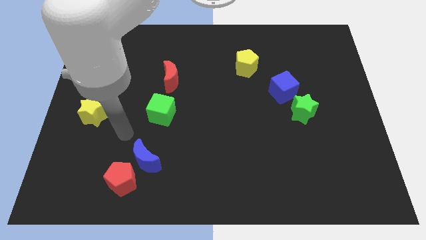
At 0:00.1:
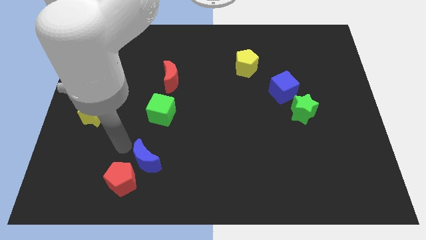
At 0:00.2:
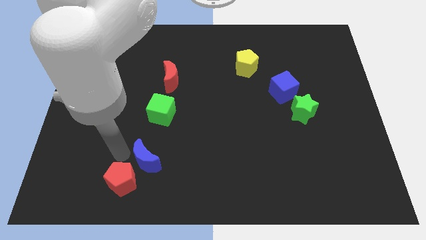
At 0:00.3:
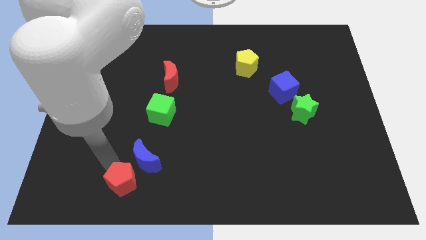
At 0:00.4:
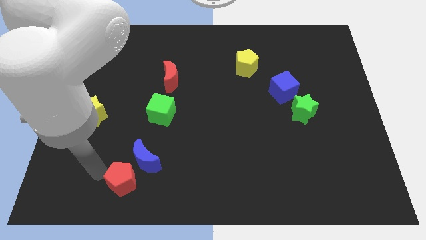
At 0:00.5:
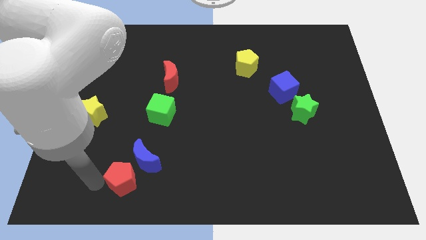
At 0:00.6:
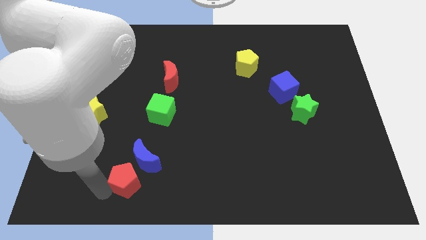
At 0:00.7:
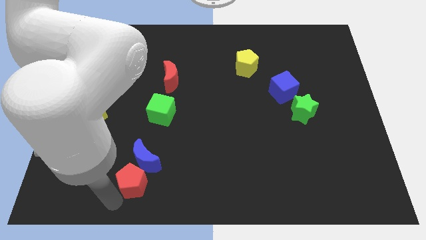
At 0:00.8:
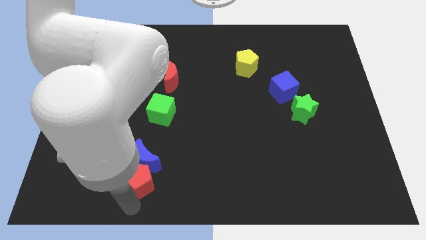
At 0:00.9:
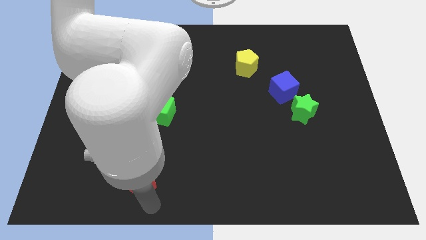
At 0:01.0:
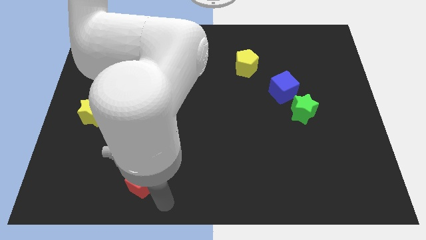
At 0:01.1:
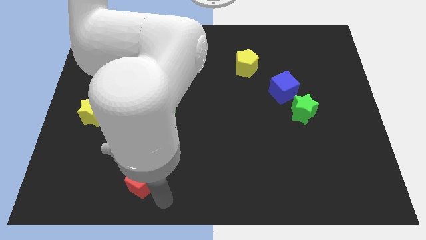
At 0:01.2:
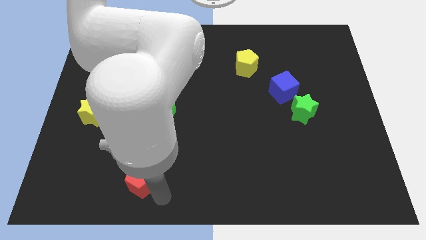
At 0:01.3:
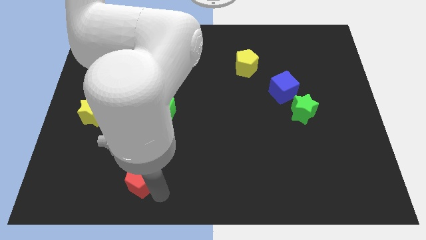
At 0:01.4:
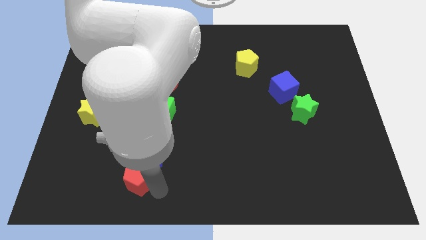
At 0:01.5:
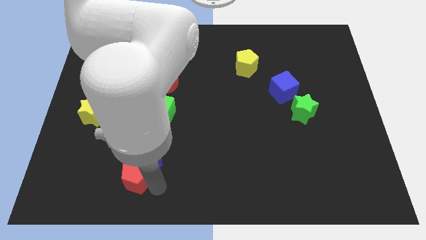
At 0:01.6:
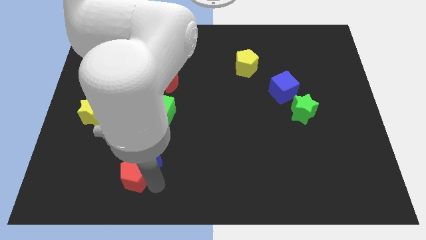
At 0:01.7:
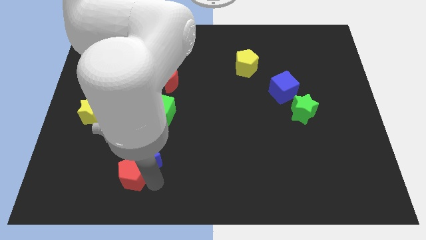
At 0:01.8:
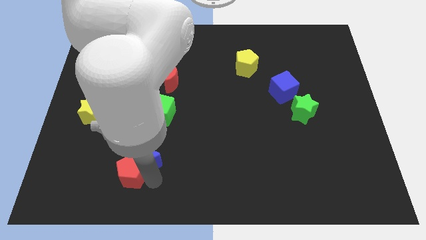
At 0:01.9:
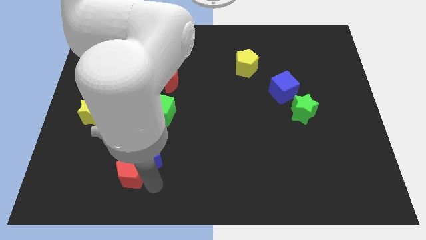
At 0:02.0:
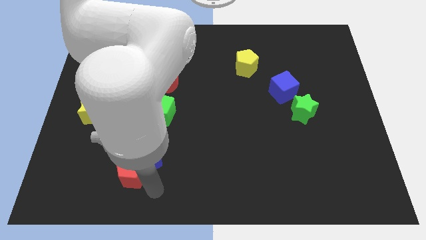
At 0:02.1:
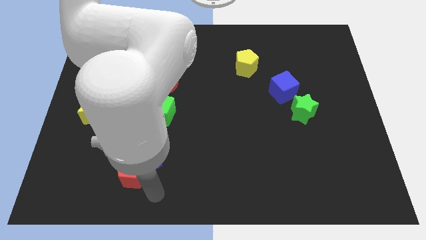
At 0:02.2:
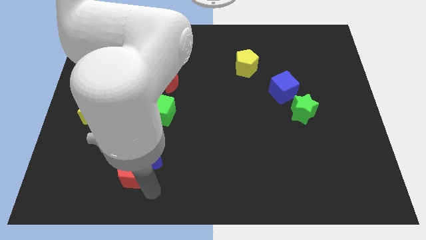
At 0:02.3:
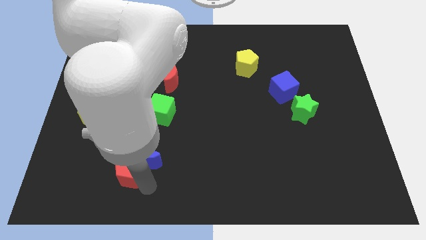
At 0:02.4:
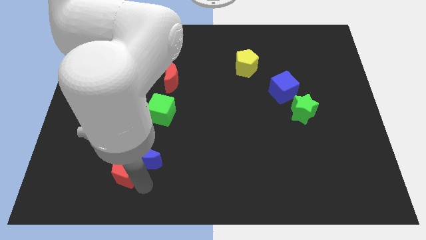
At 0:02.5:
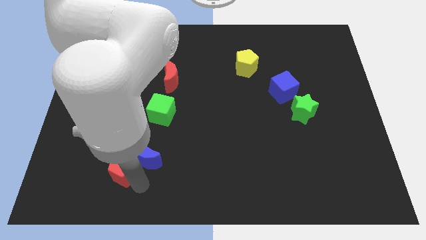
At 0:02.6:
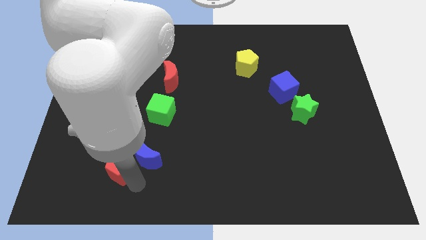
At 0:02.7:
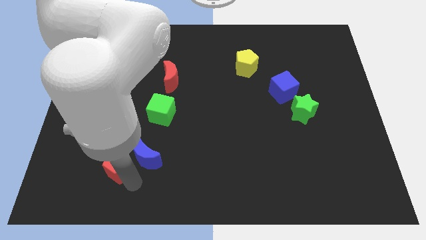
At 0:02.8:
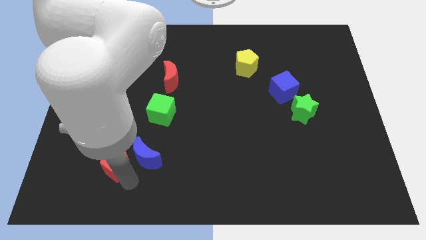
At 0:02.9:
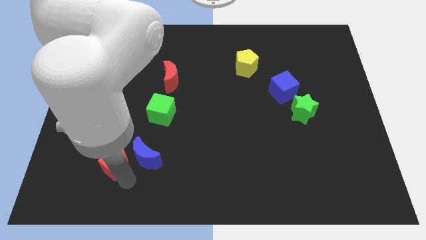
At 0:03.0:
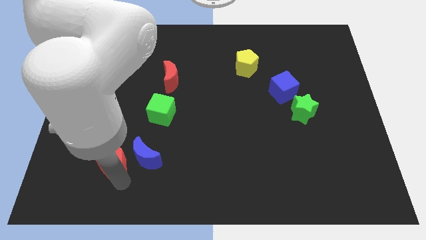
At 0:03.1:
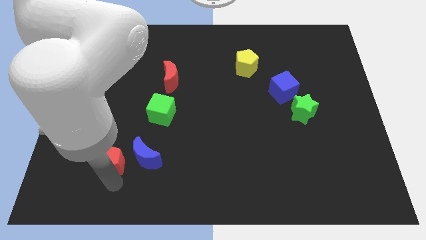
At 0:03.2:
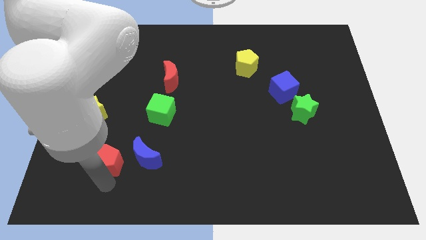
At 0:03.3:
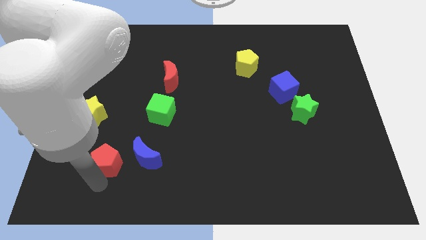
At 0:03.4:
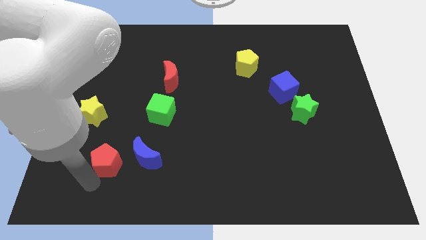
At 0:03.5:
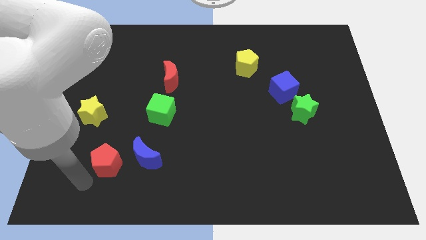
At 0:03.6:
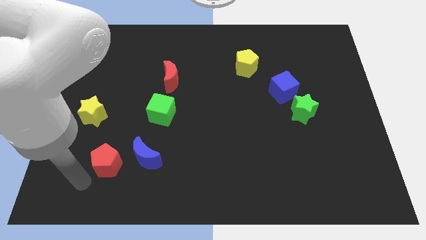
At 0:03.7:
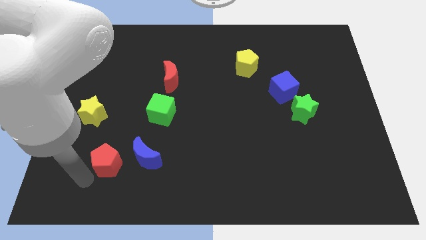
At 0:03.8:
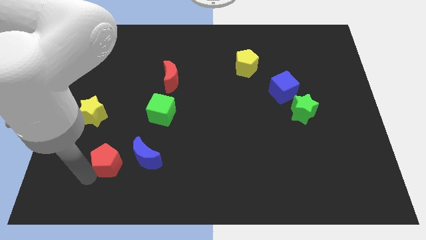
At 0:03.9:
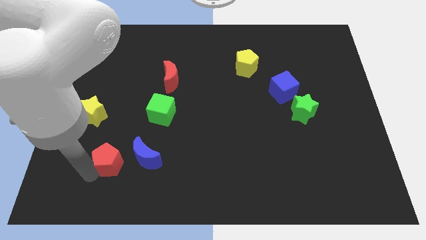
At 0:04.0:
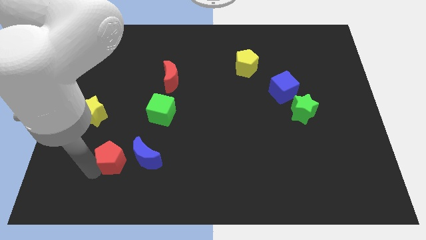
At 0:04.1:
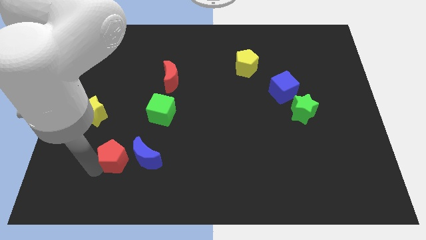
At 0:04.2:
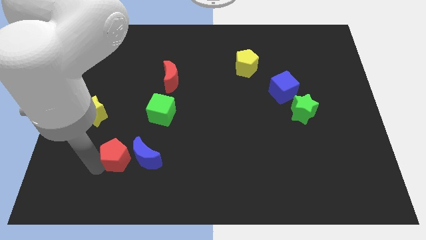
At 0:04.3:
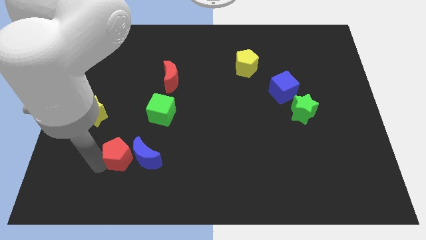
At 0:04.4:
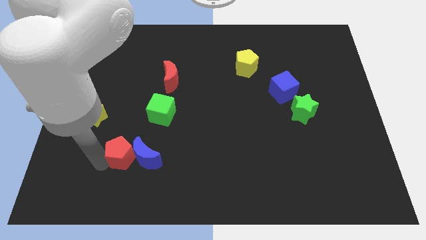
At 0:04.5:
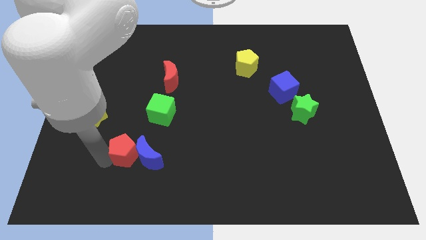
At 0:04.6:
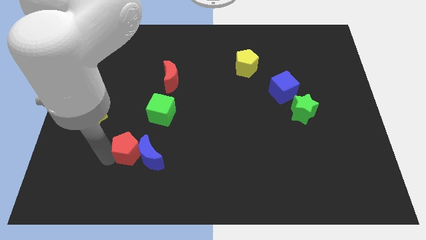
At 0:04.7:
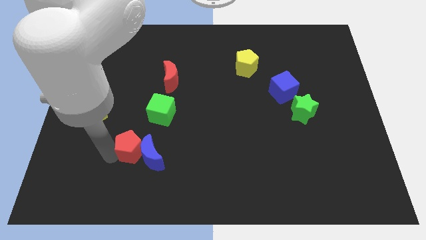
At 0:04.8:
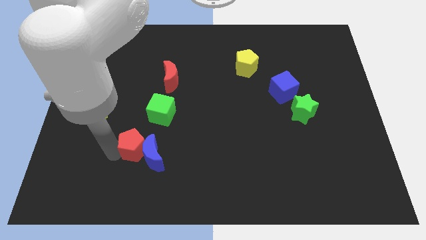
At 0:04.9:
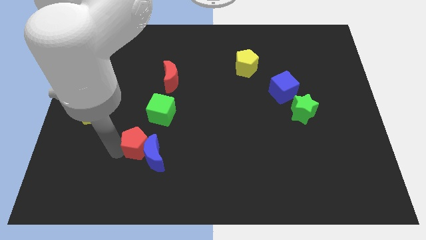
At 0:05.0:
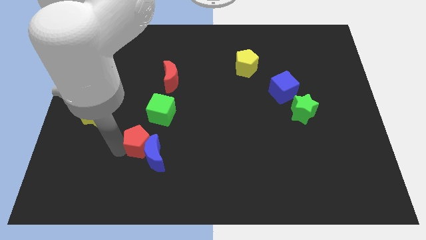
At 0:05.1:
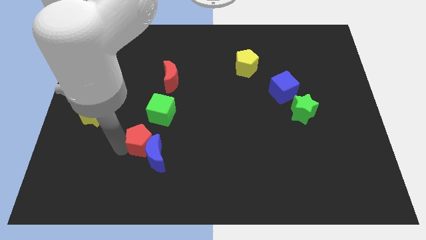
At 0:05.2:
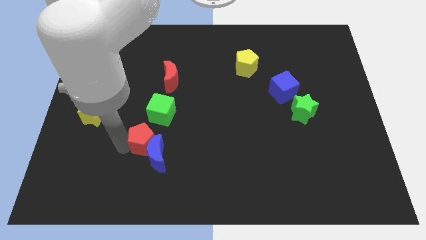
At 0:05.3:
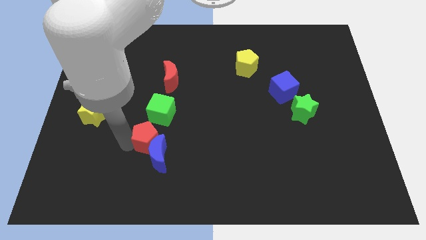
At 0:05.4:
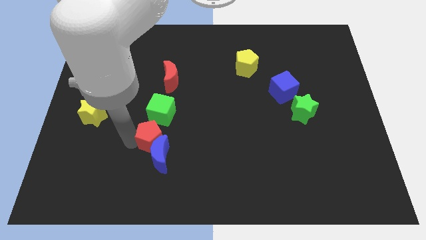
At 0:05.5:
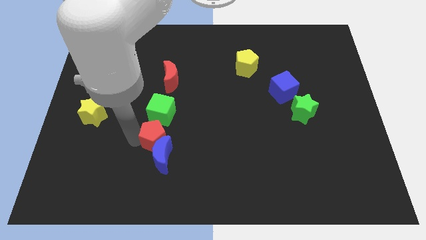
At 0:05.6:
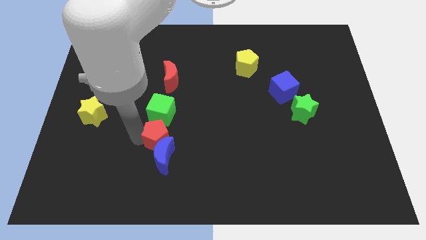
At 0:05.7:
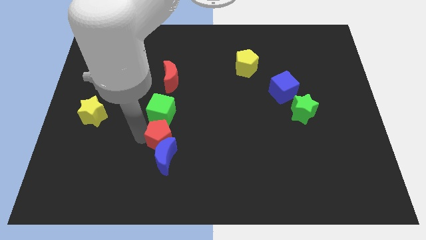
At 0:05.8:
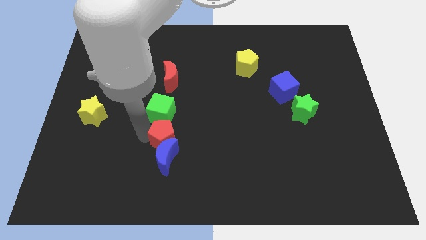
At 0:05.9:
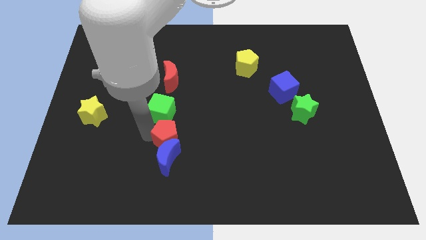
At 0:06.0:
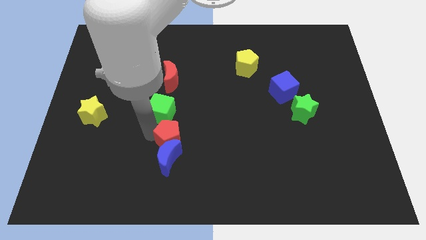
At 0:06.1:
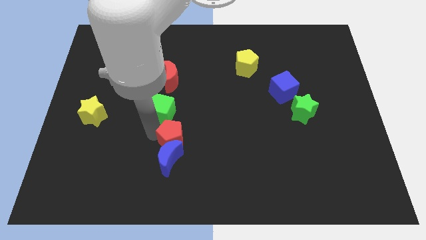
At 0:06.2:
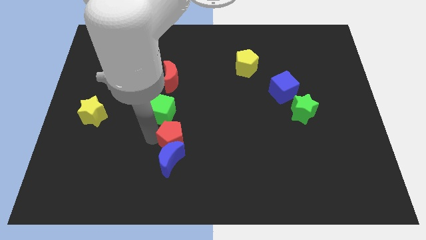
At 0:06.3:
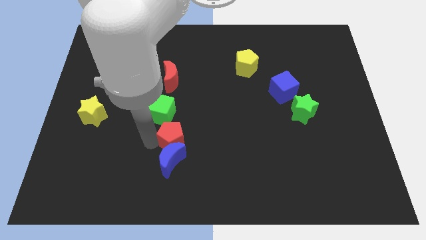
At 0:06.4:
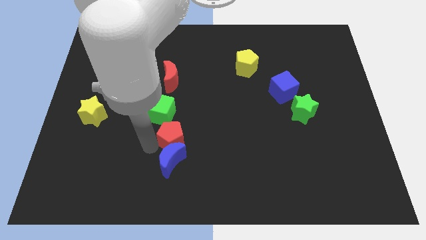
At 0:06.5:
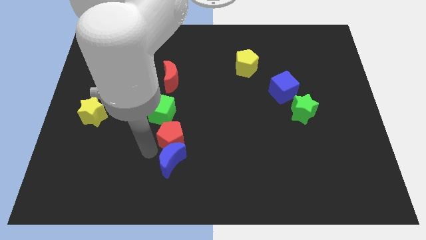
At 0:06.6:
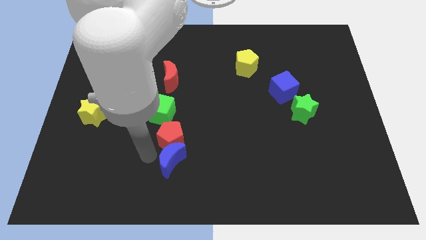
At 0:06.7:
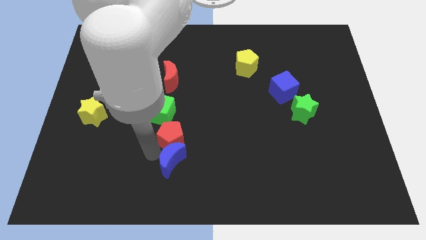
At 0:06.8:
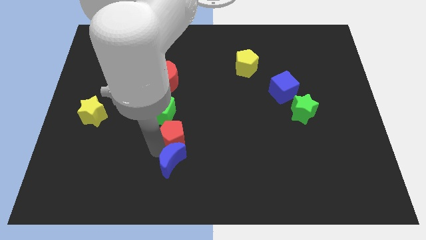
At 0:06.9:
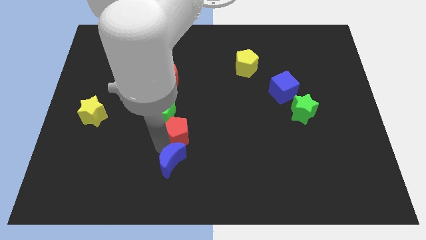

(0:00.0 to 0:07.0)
move the red pentagon to the center
